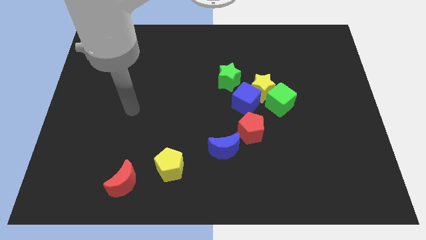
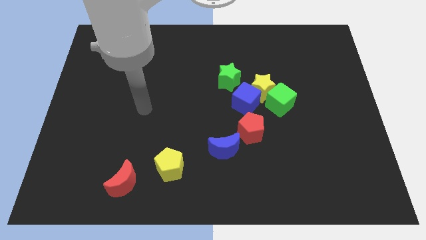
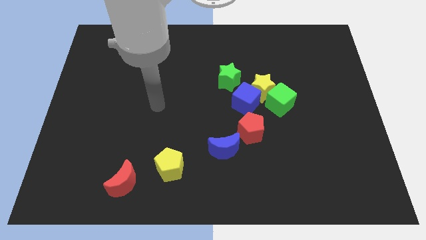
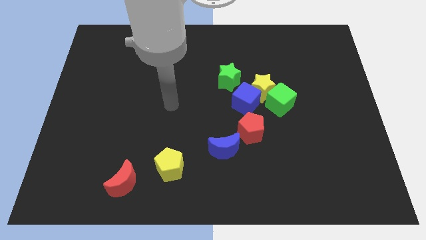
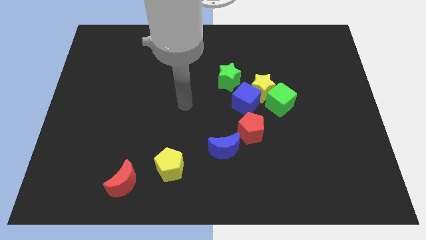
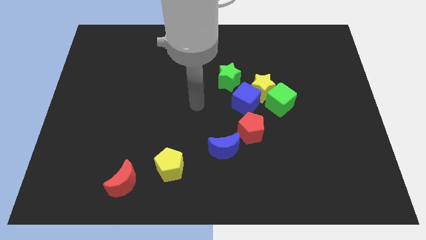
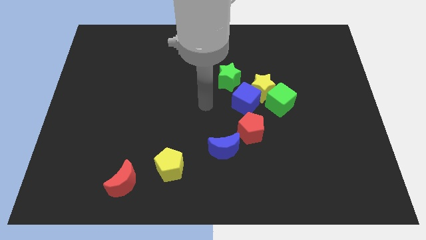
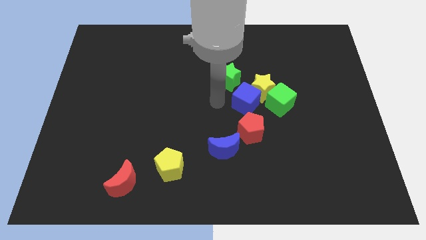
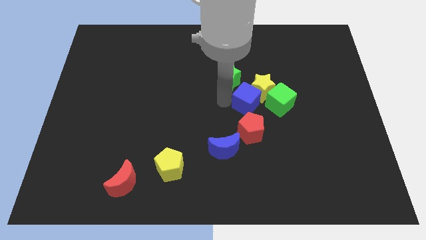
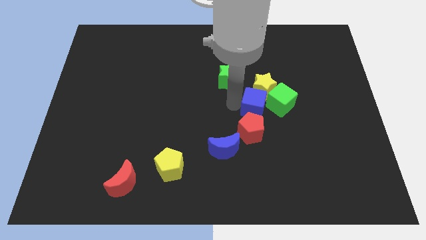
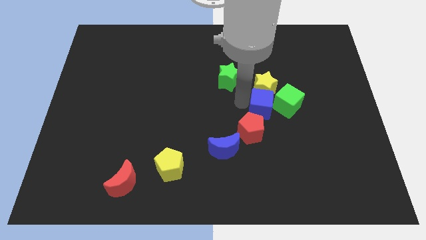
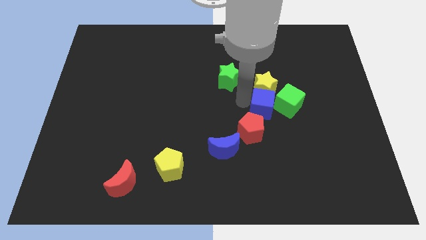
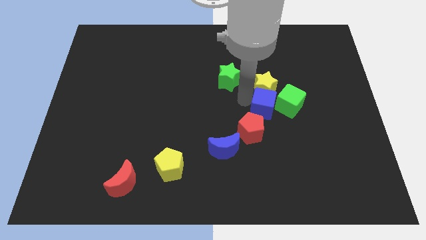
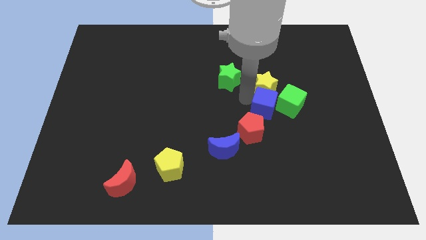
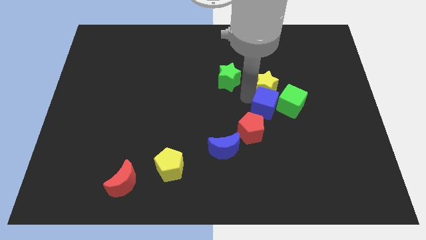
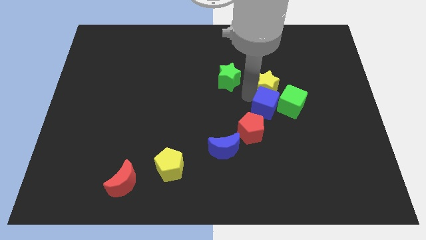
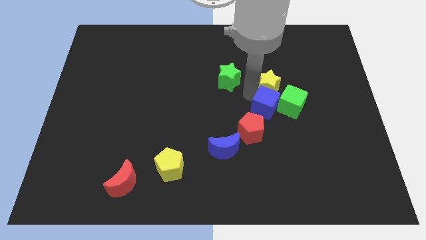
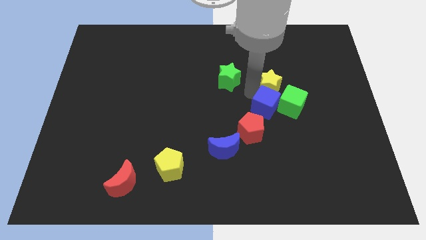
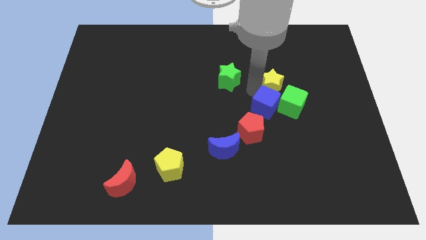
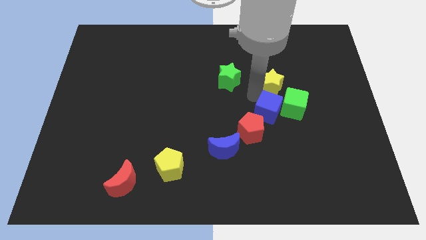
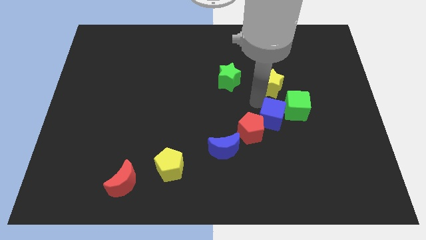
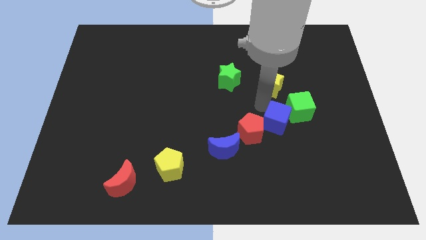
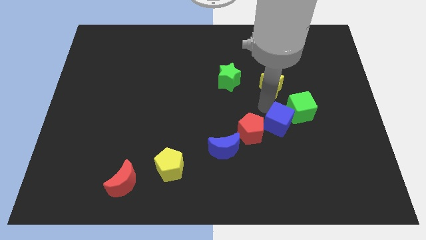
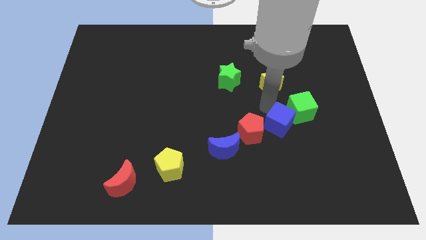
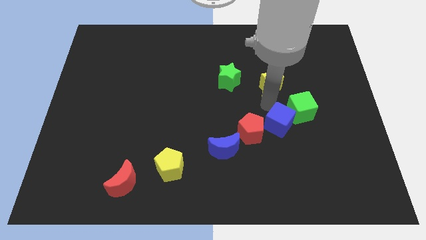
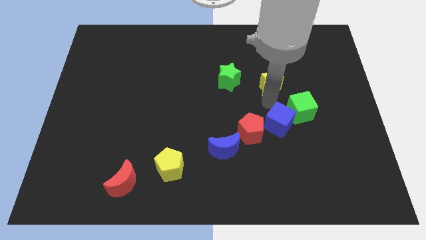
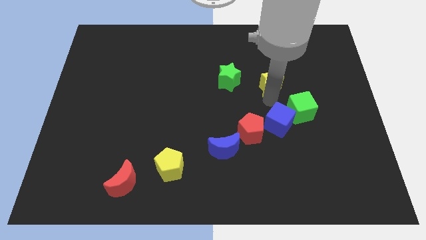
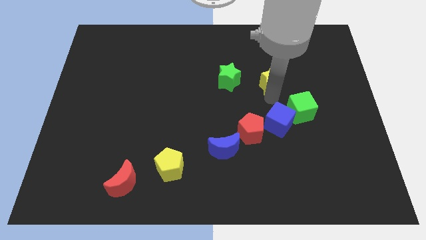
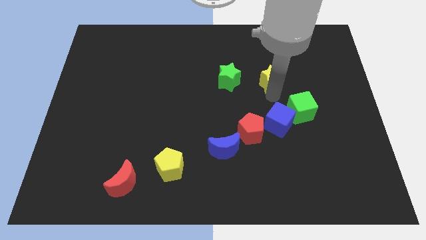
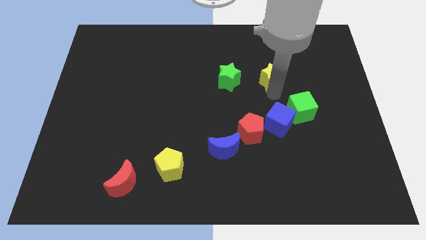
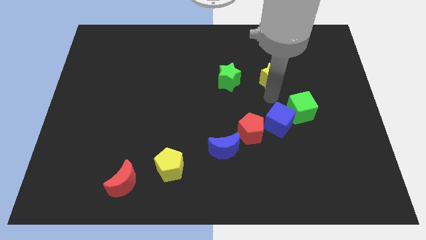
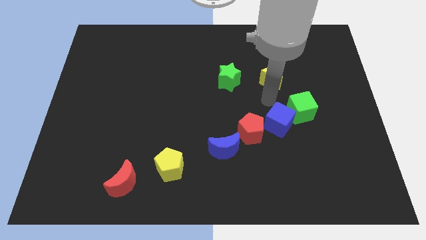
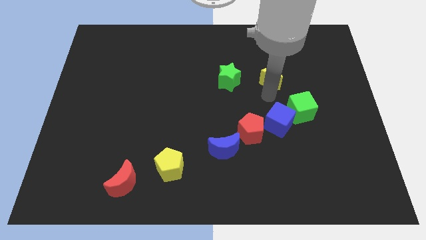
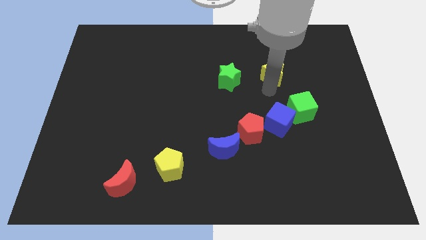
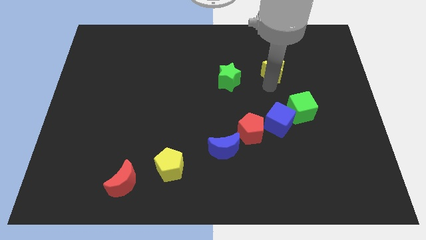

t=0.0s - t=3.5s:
pull the yellow star apart from the group of blocks

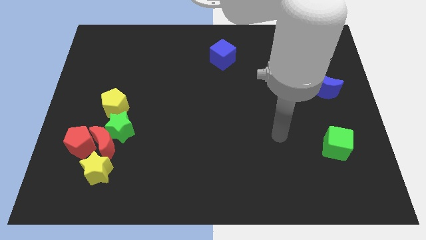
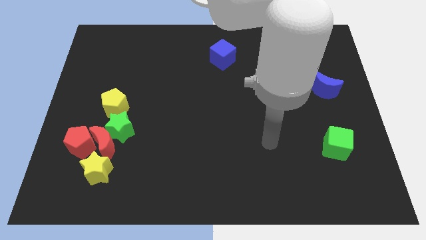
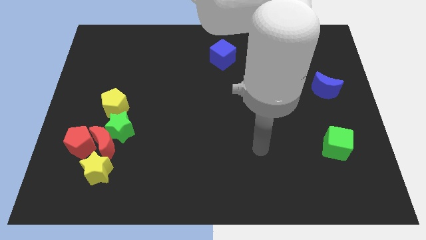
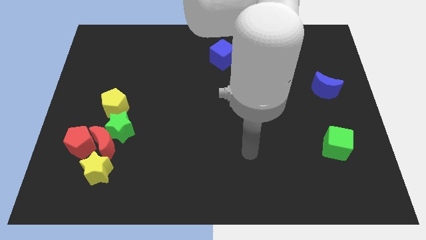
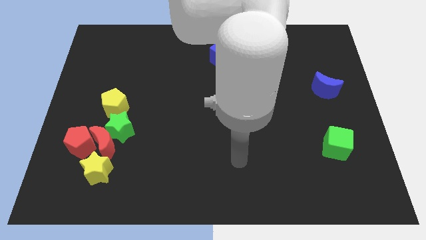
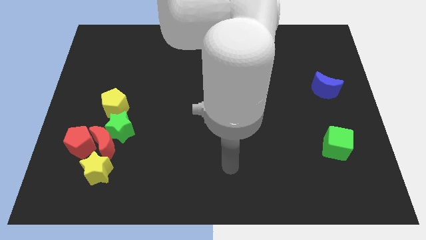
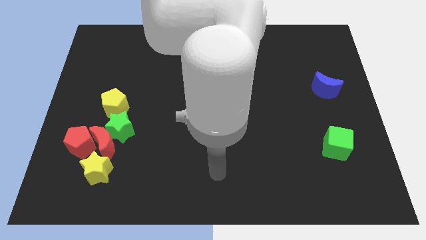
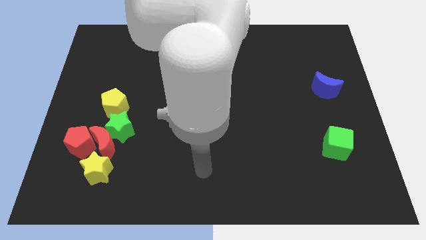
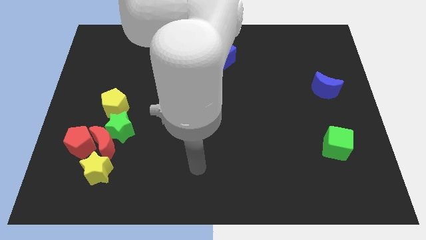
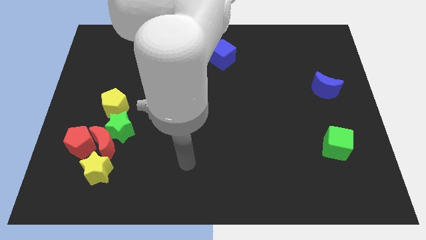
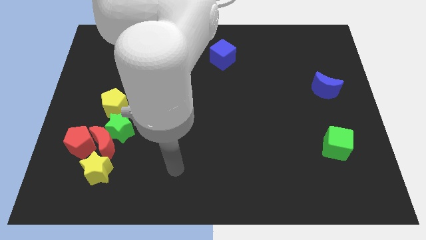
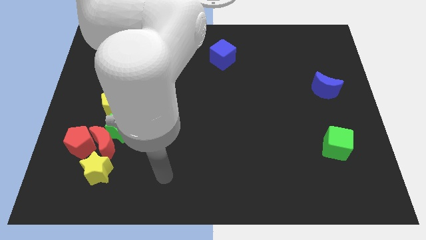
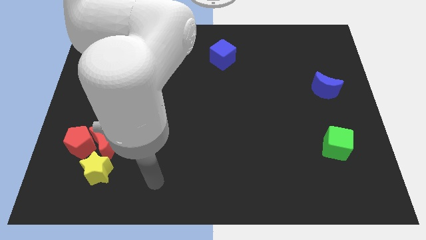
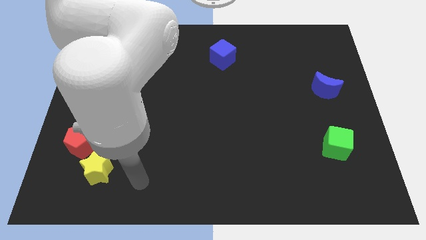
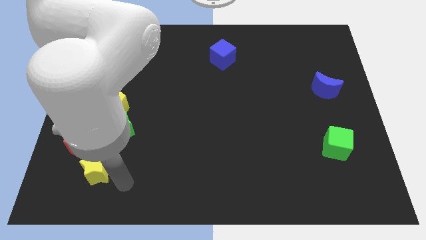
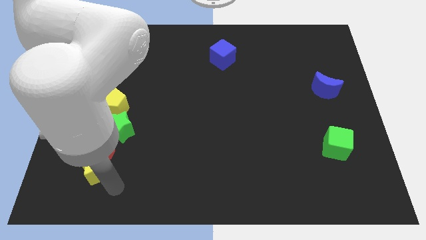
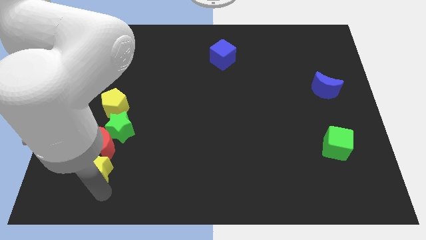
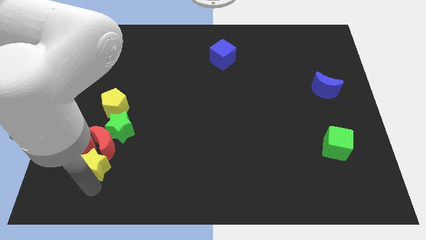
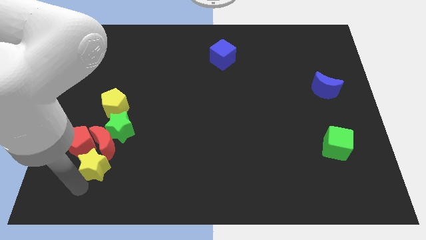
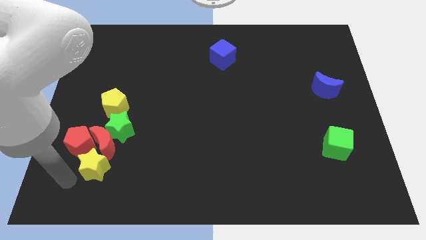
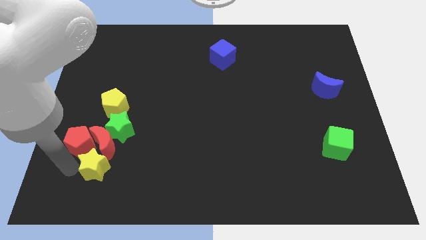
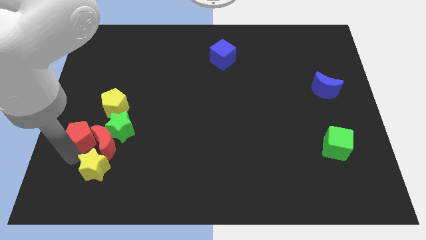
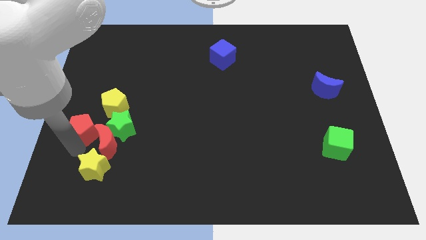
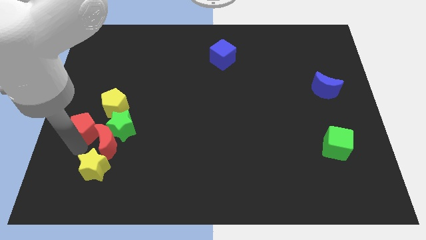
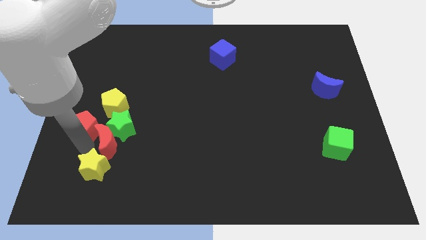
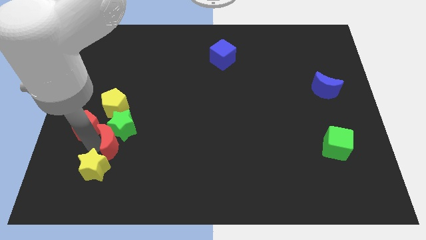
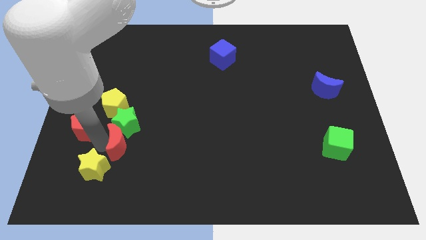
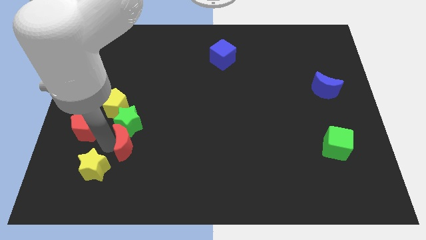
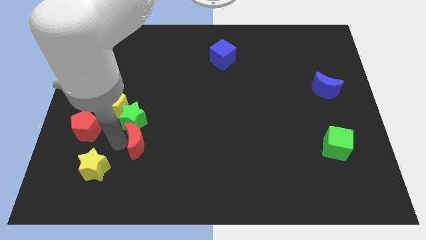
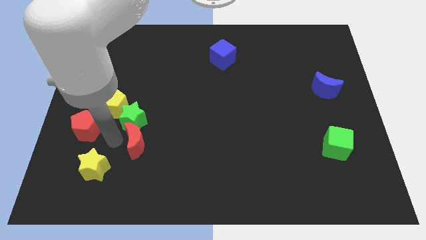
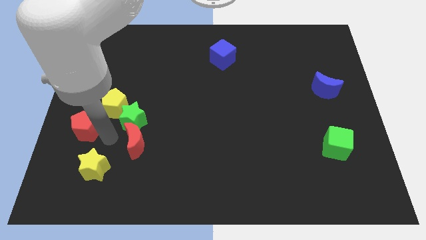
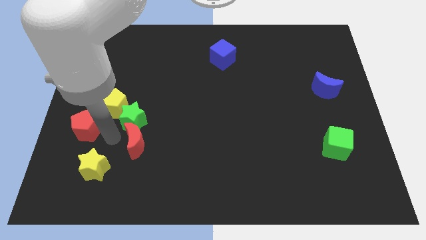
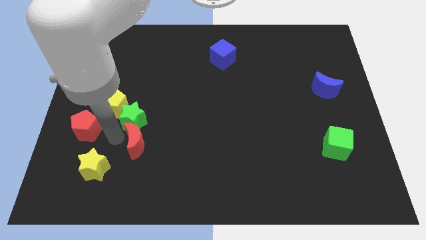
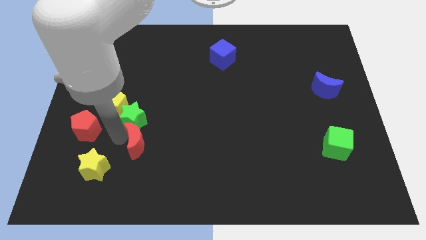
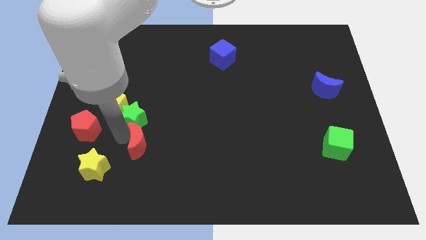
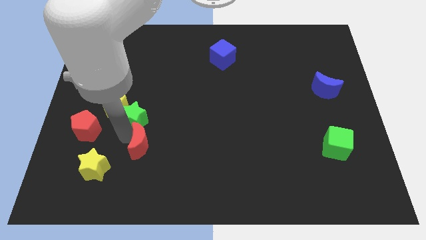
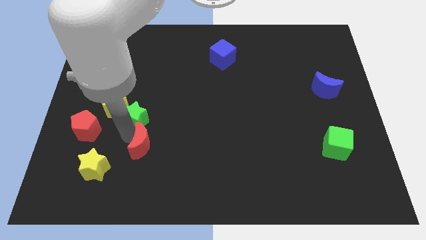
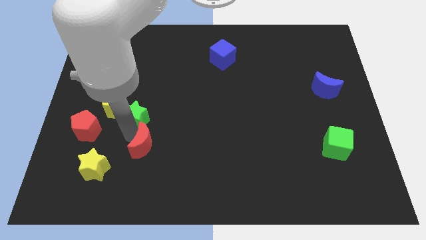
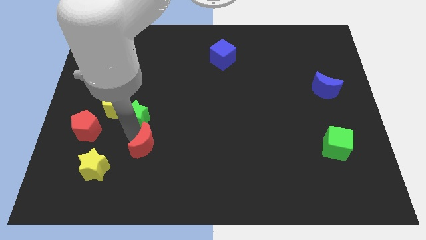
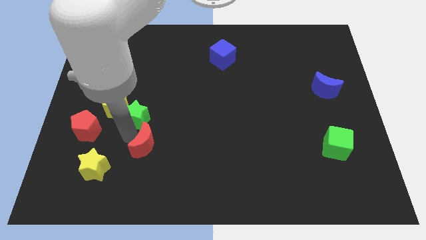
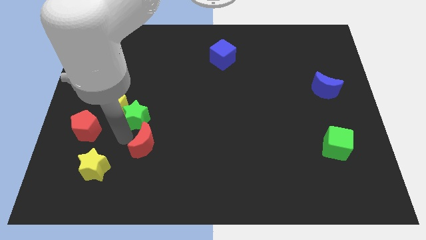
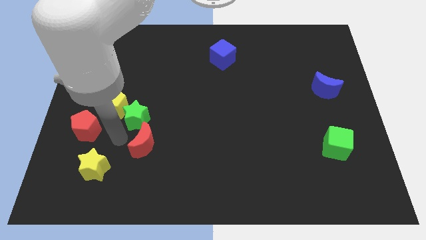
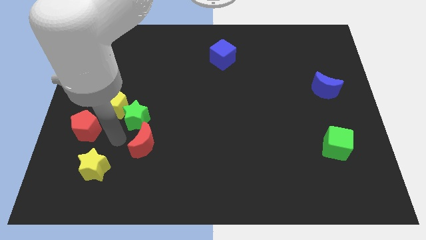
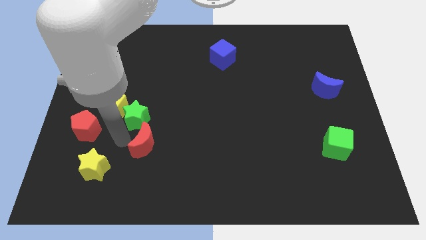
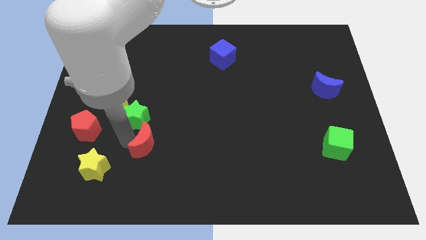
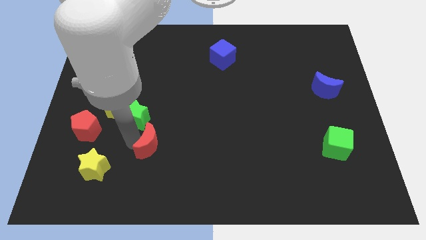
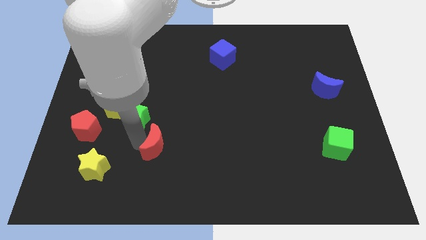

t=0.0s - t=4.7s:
pull the red moon apart from the group

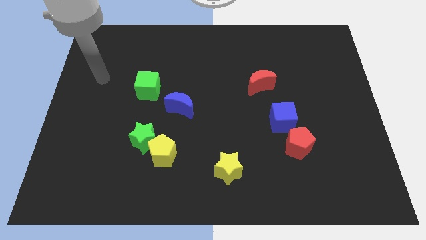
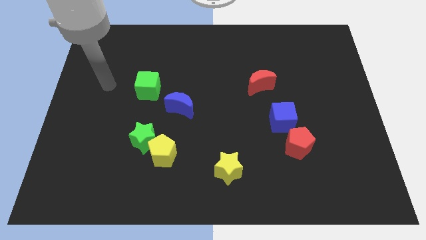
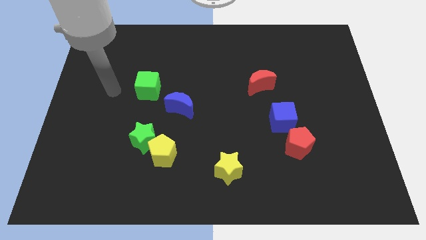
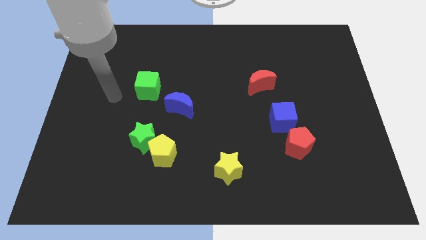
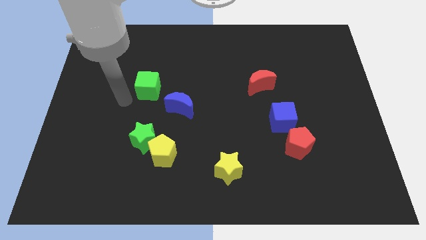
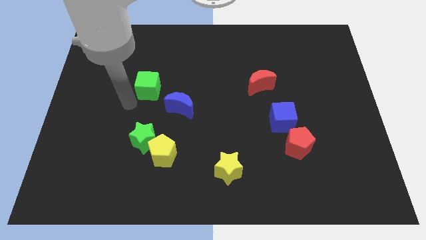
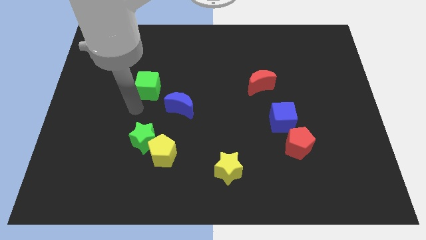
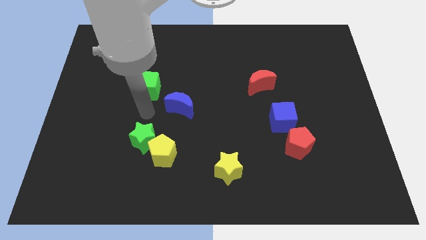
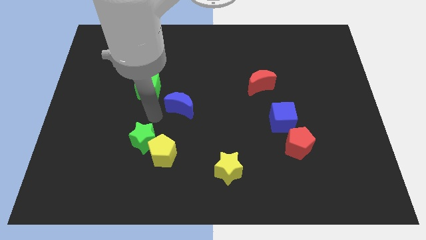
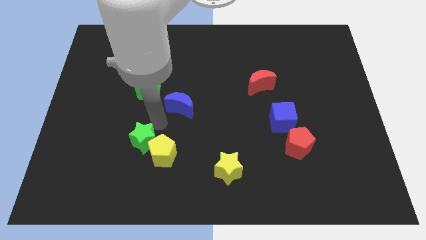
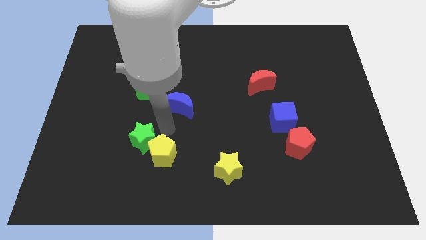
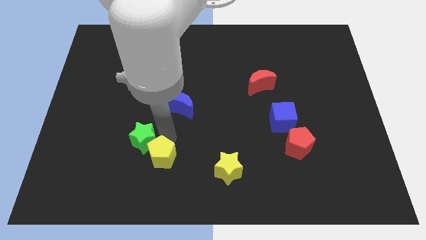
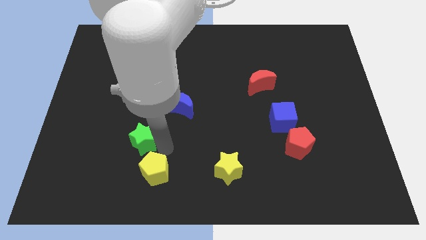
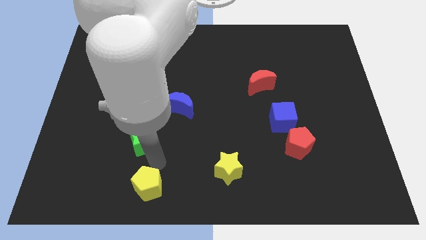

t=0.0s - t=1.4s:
pull the green star apart from the yellow pentagon

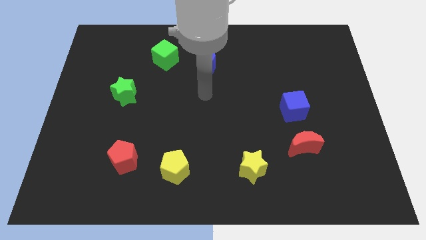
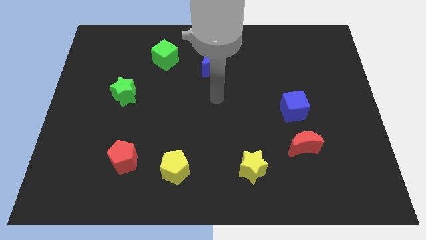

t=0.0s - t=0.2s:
separate the red moon from the blue cube
